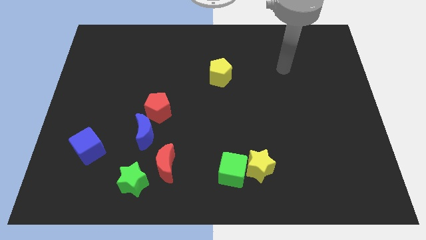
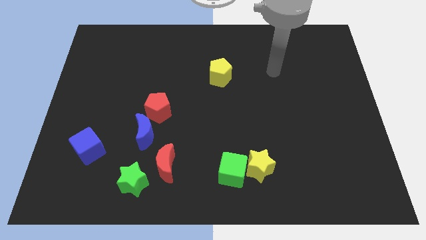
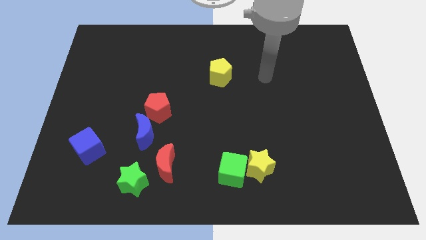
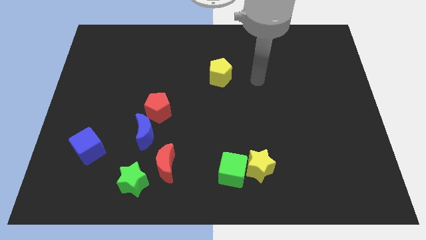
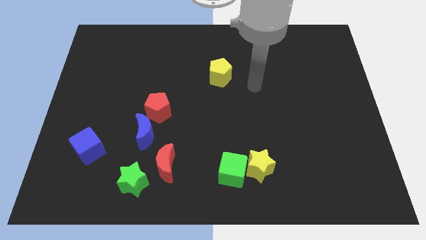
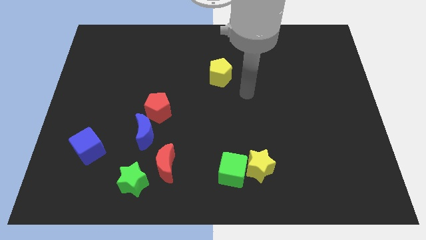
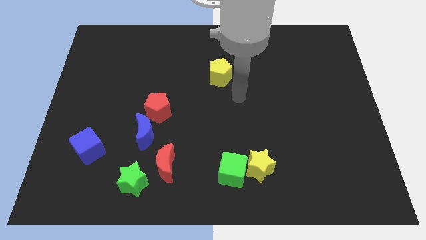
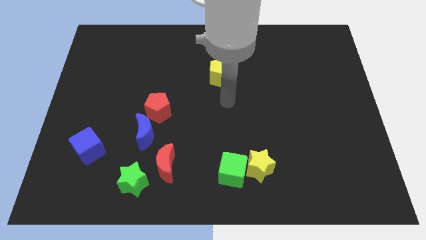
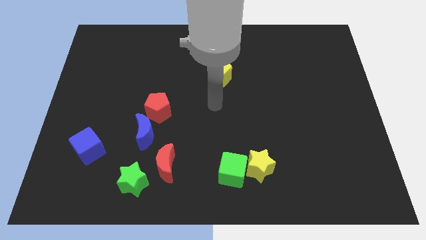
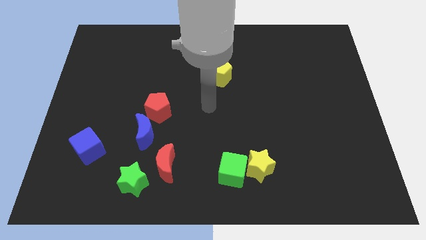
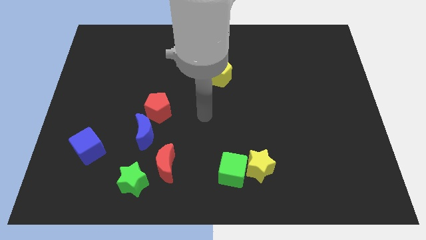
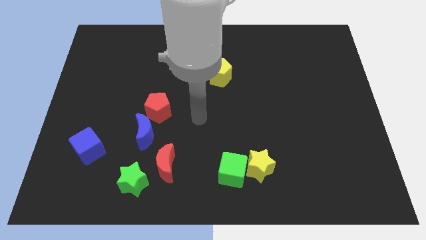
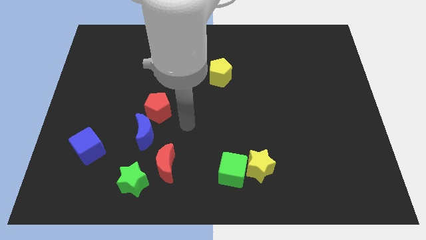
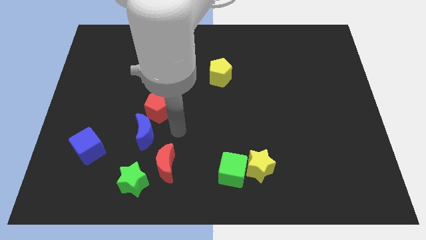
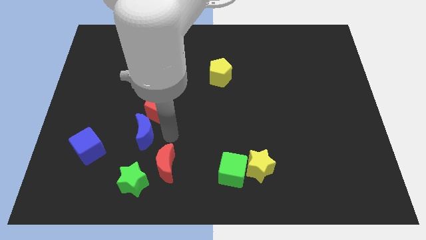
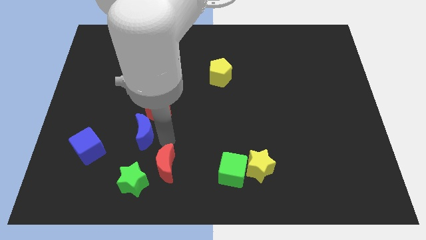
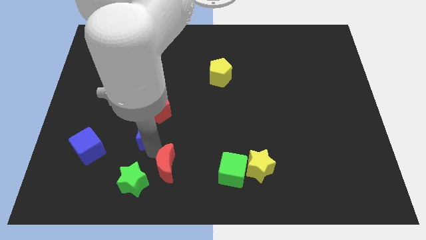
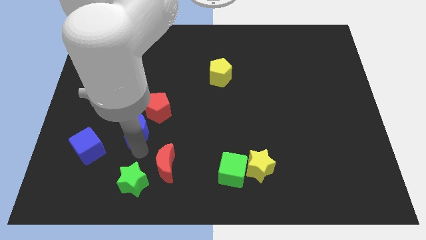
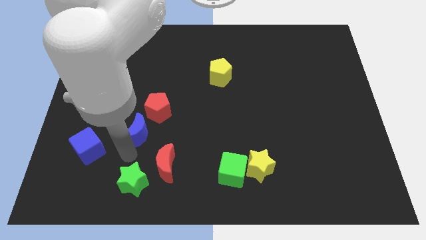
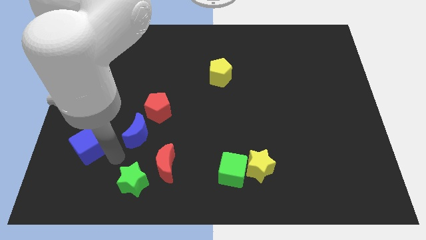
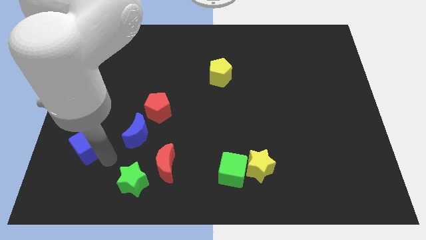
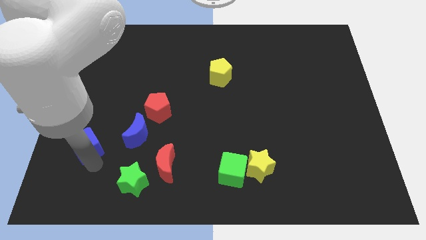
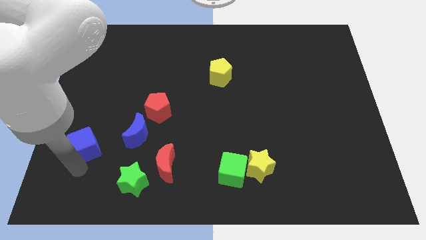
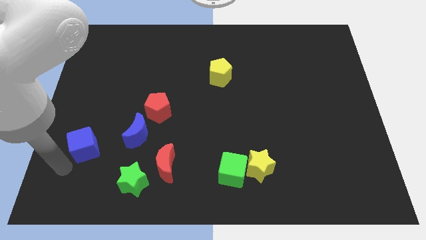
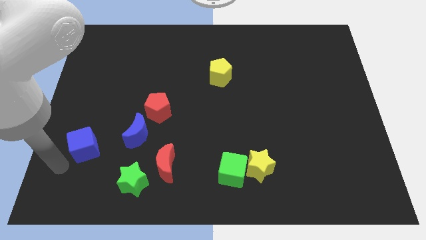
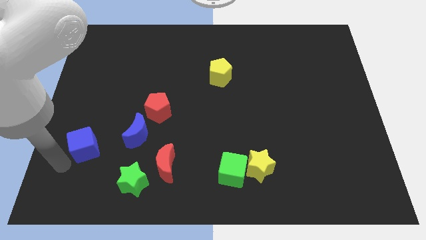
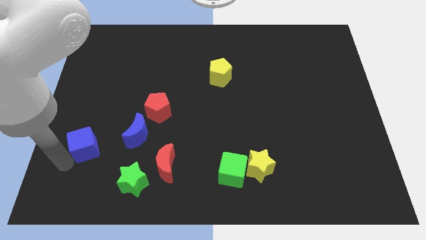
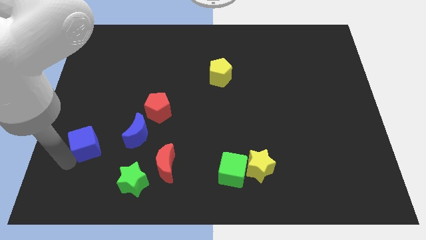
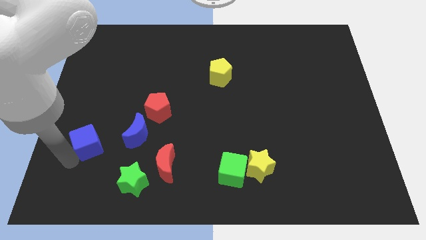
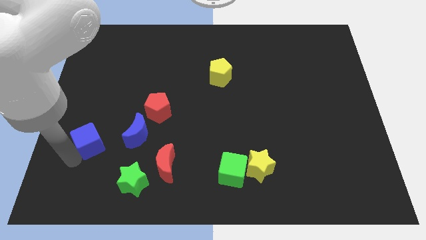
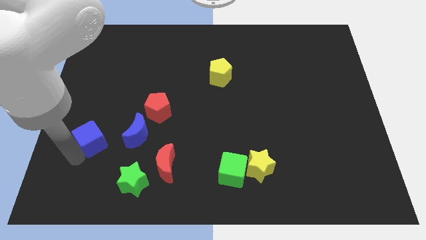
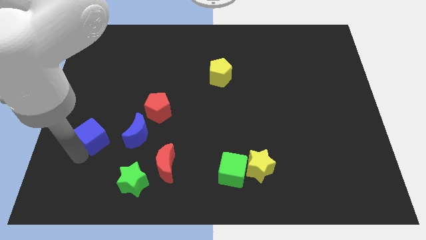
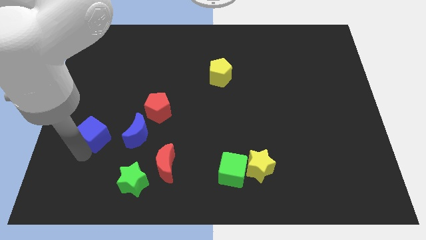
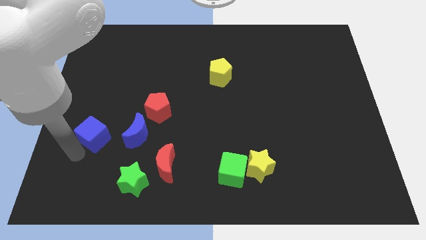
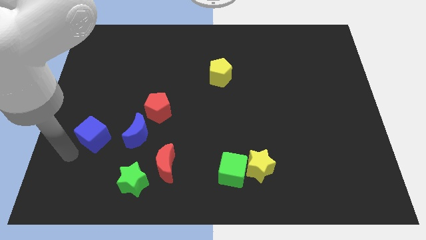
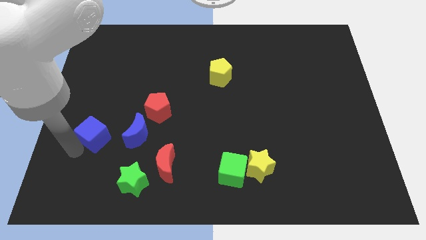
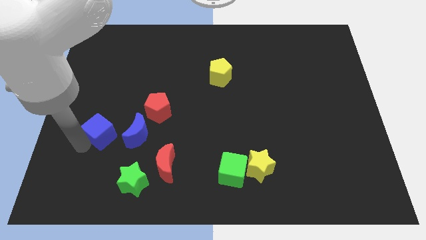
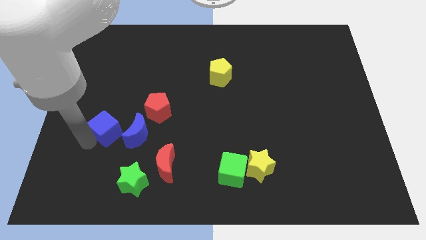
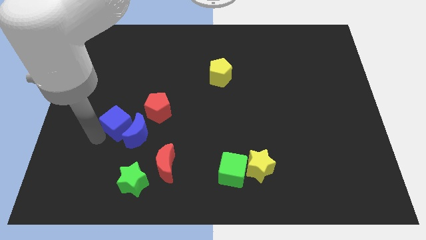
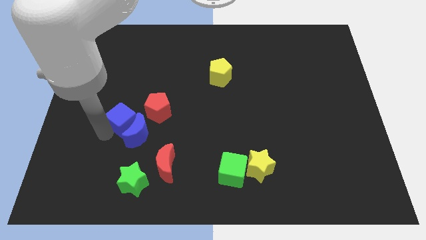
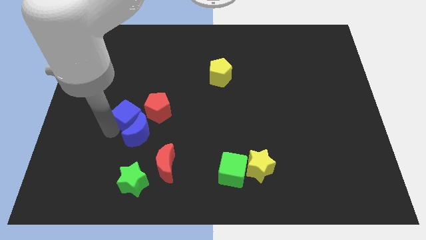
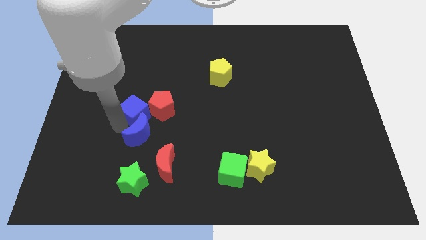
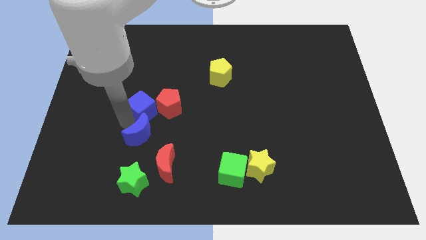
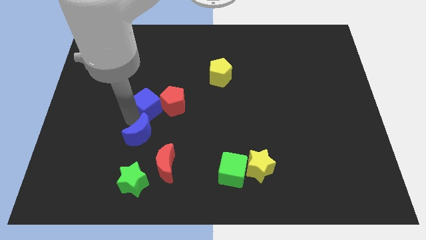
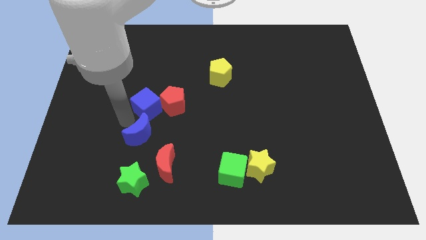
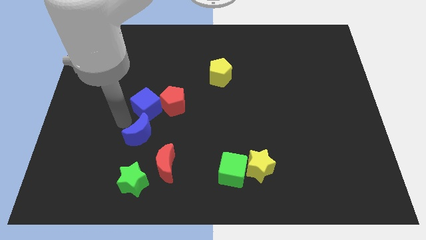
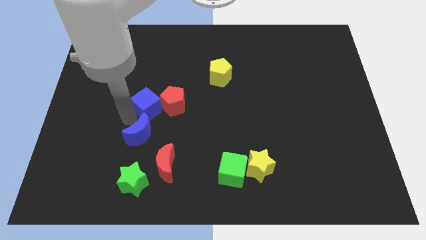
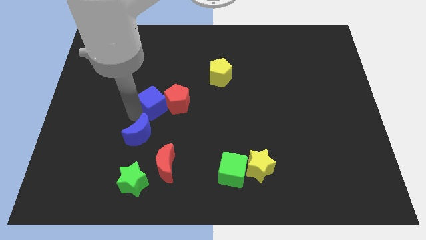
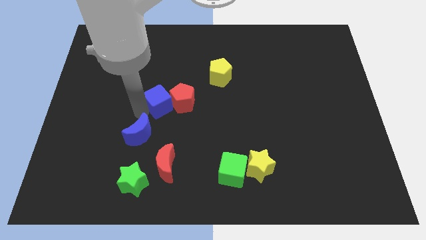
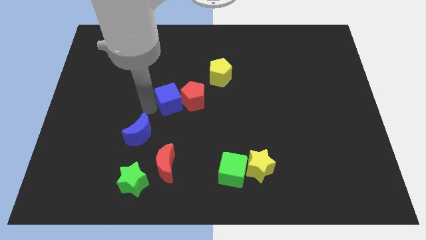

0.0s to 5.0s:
put the blue cube to the middle
